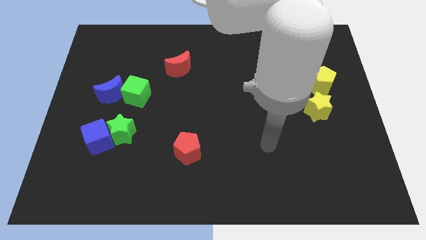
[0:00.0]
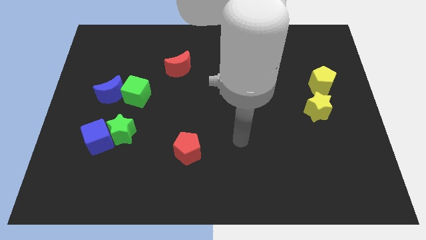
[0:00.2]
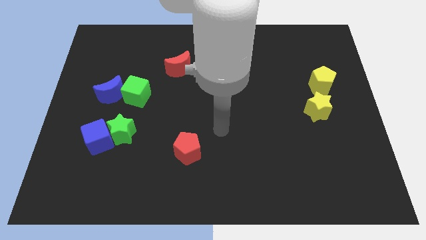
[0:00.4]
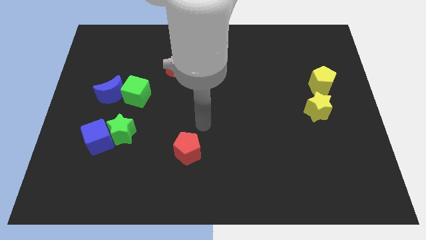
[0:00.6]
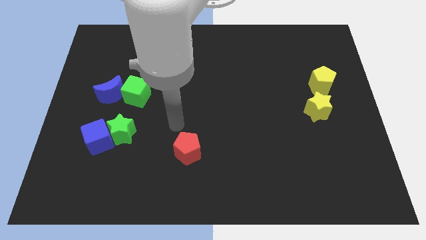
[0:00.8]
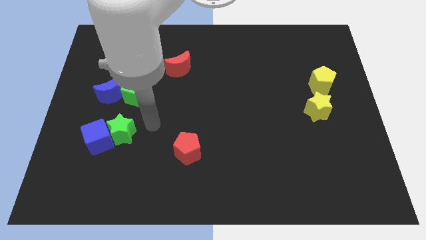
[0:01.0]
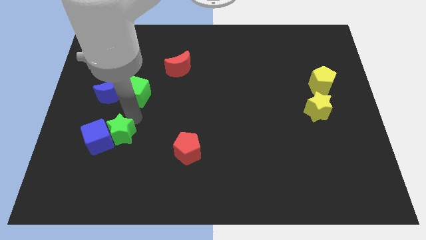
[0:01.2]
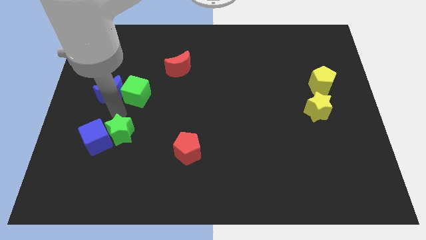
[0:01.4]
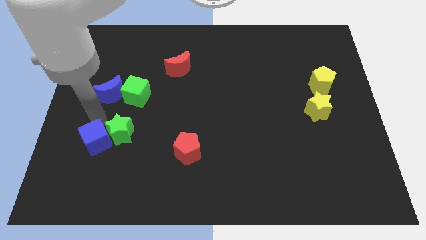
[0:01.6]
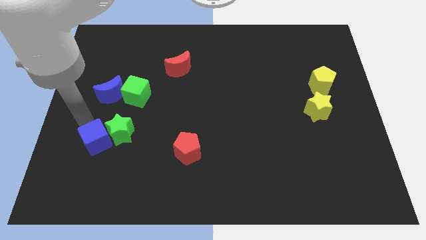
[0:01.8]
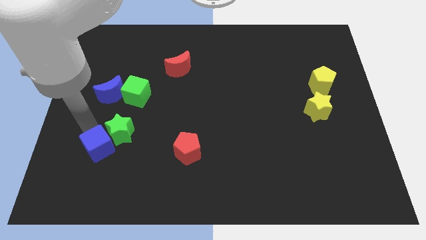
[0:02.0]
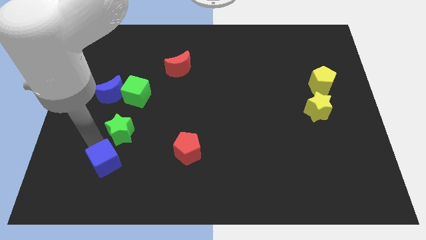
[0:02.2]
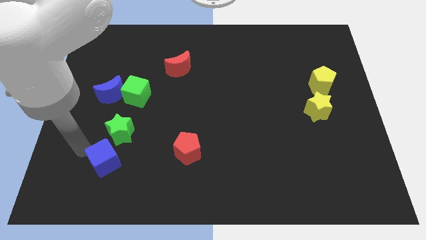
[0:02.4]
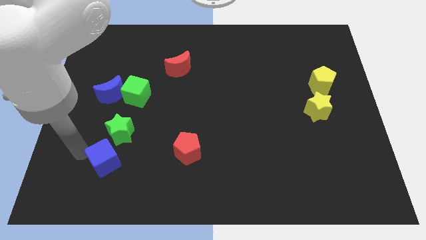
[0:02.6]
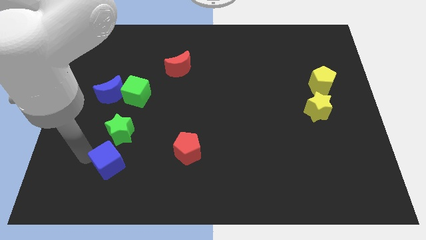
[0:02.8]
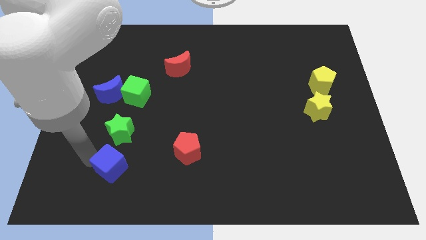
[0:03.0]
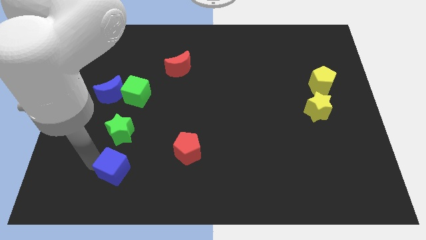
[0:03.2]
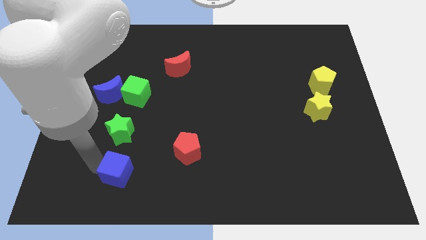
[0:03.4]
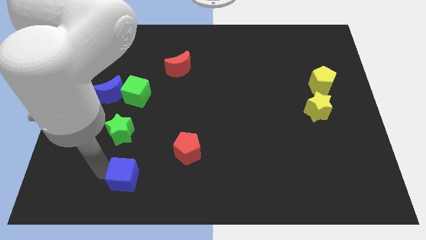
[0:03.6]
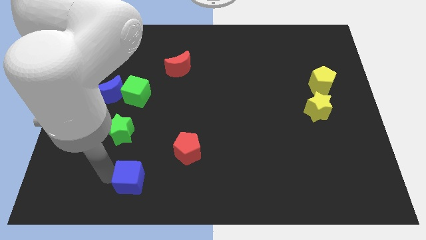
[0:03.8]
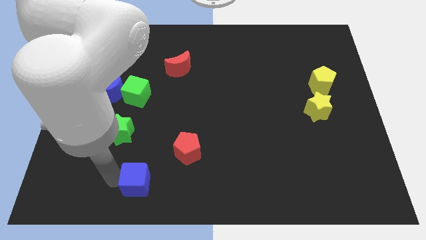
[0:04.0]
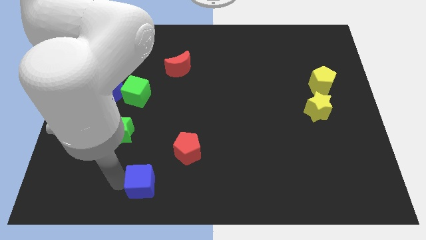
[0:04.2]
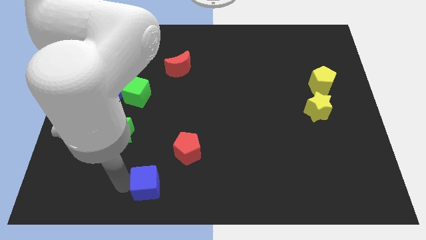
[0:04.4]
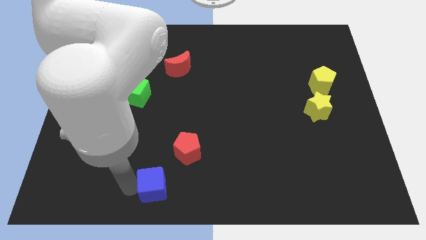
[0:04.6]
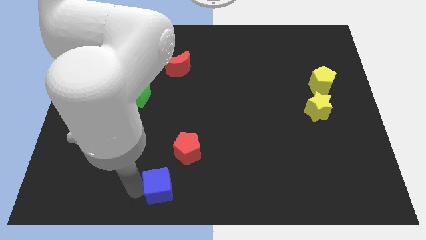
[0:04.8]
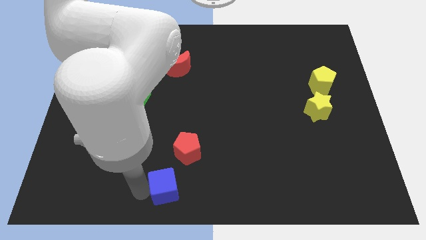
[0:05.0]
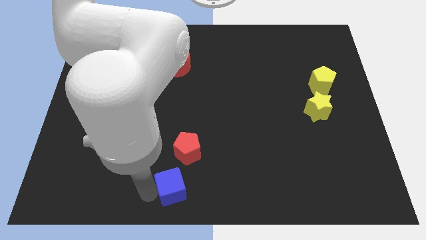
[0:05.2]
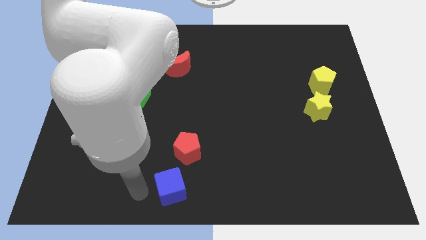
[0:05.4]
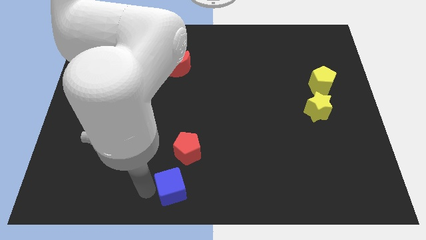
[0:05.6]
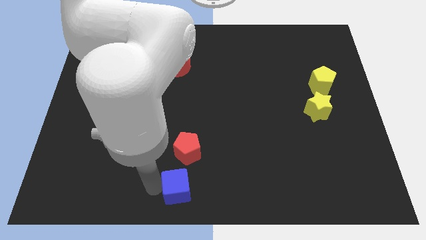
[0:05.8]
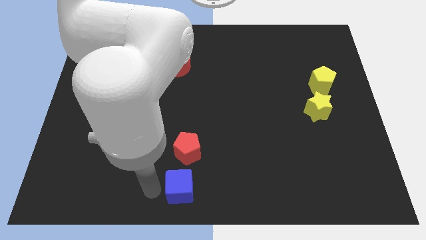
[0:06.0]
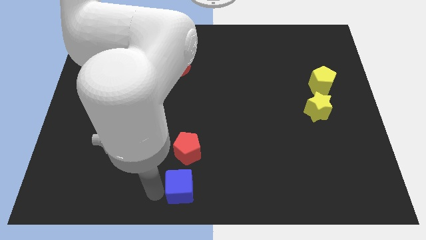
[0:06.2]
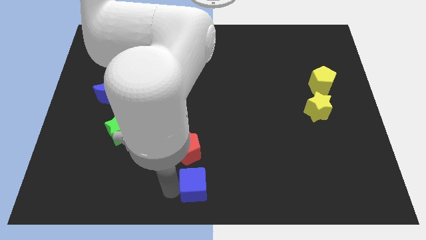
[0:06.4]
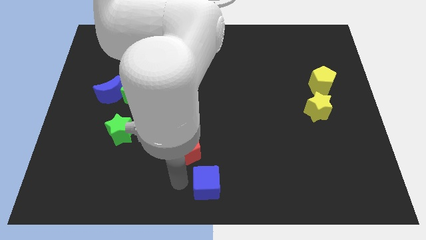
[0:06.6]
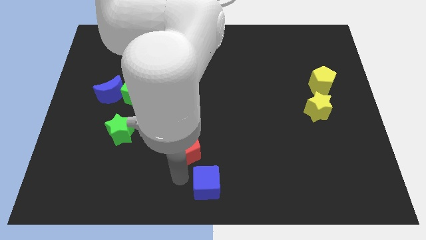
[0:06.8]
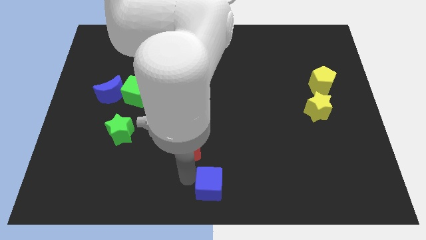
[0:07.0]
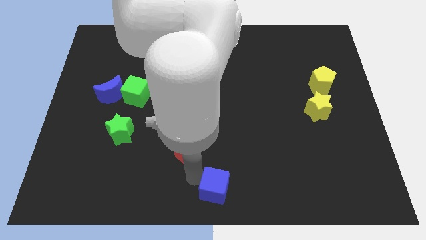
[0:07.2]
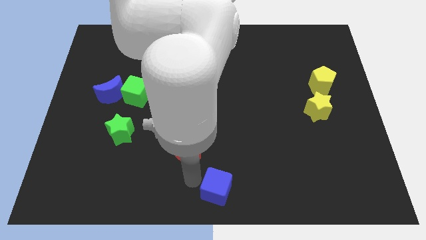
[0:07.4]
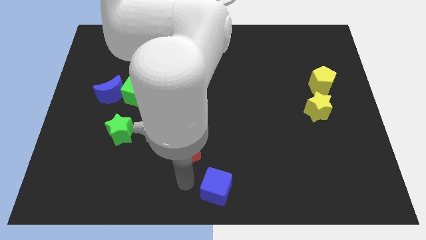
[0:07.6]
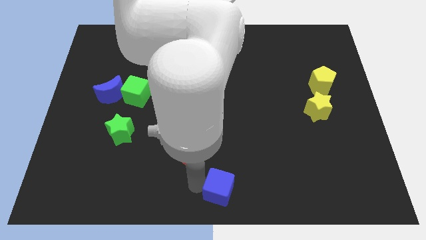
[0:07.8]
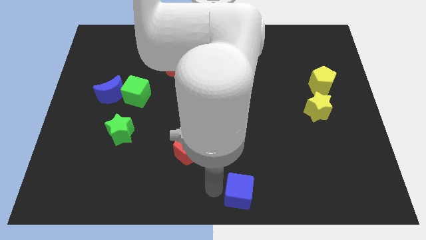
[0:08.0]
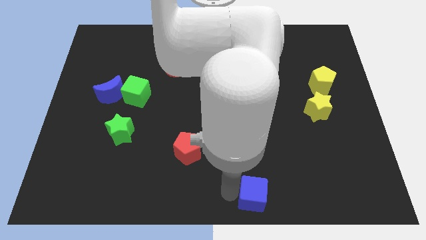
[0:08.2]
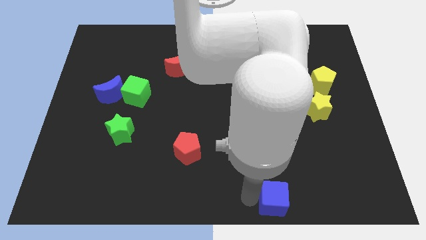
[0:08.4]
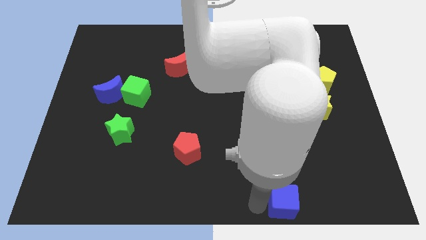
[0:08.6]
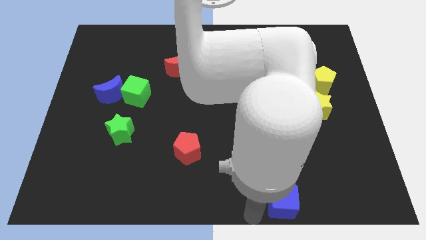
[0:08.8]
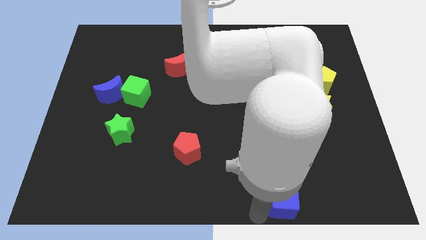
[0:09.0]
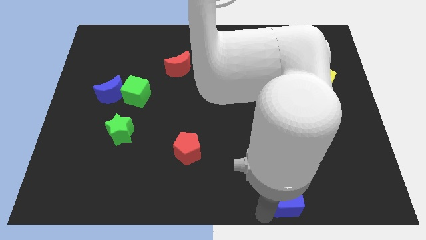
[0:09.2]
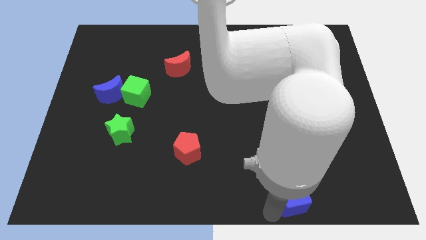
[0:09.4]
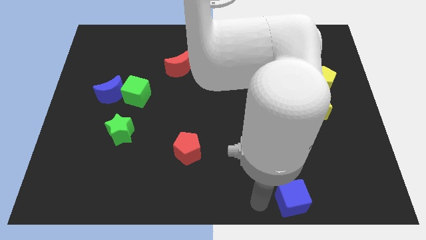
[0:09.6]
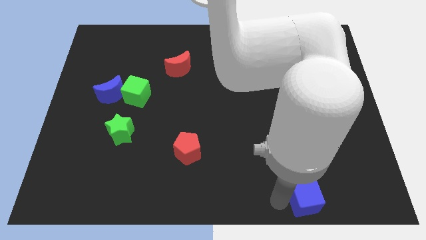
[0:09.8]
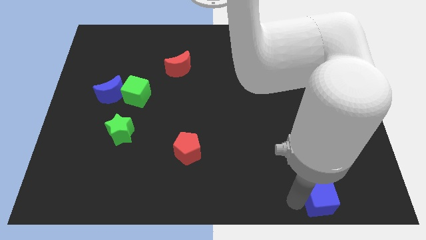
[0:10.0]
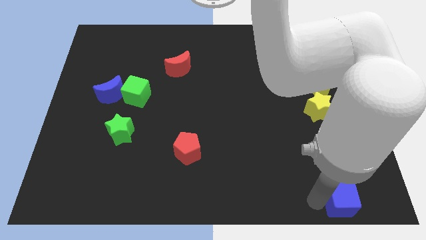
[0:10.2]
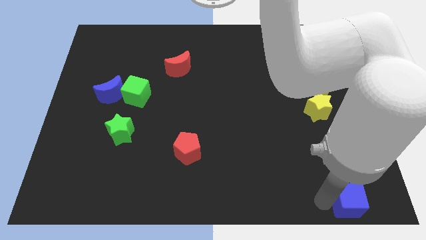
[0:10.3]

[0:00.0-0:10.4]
put the blue cube to the bottom right of the board

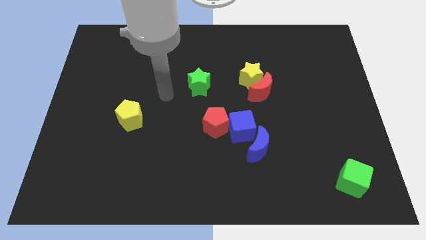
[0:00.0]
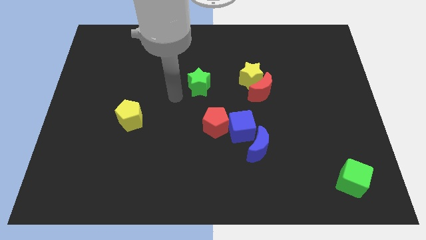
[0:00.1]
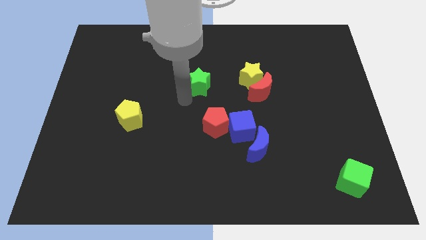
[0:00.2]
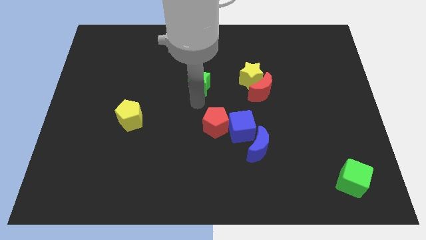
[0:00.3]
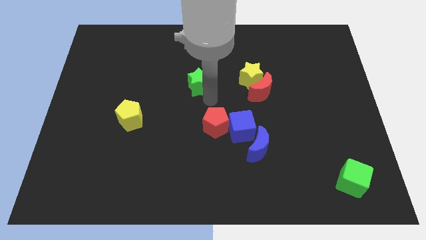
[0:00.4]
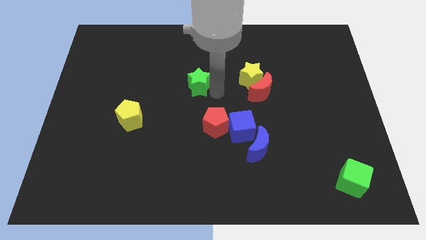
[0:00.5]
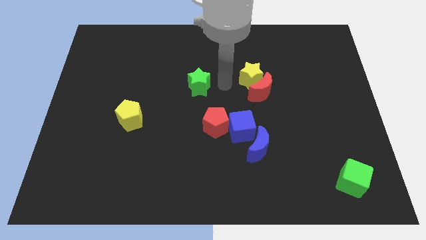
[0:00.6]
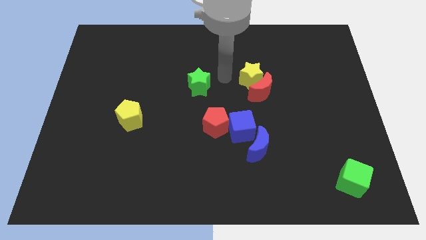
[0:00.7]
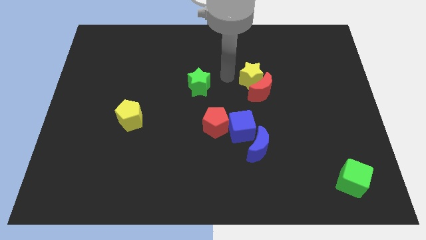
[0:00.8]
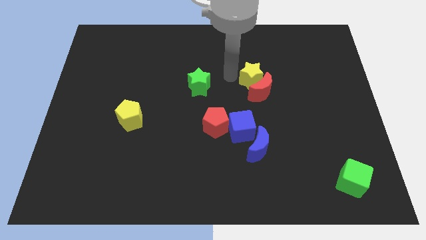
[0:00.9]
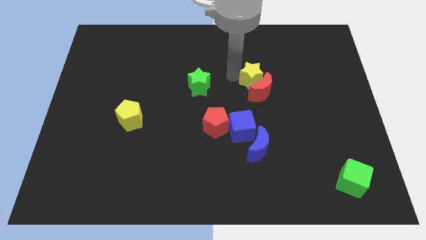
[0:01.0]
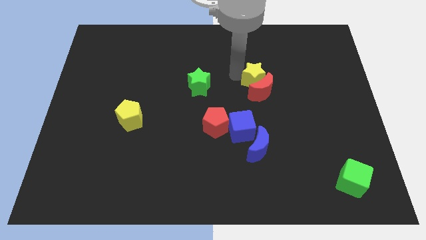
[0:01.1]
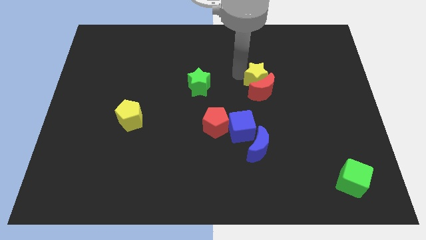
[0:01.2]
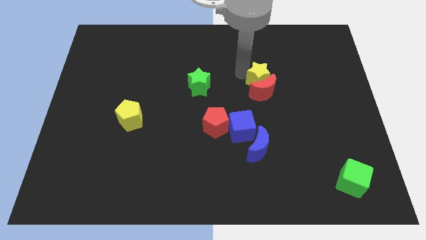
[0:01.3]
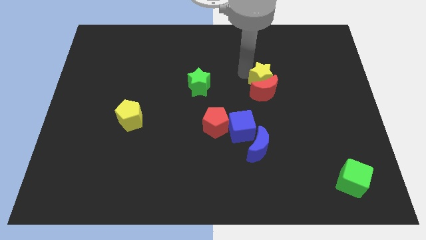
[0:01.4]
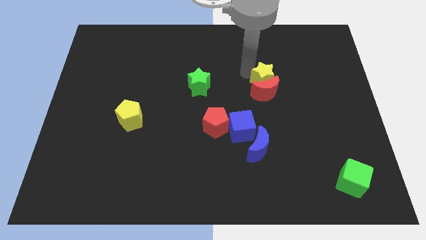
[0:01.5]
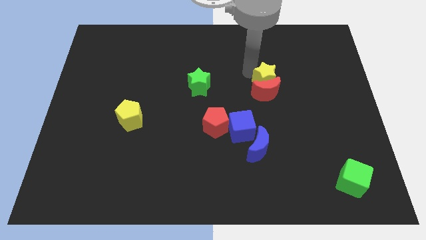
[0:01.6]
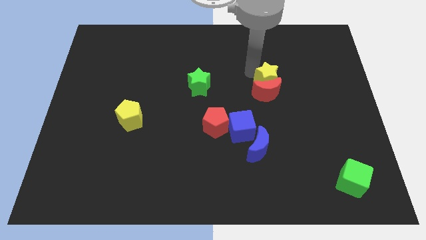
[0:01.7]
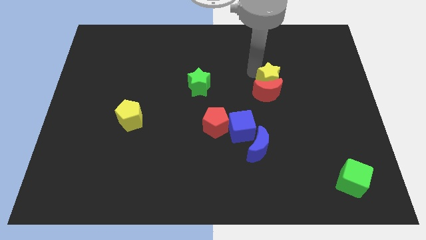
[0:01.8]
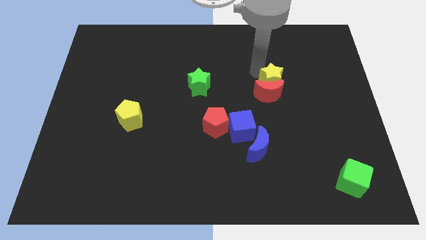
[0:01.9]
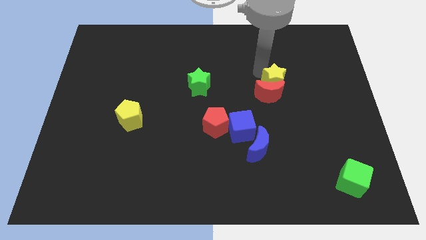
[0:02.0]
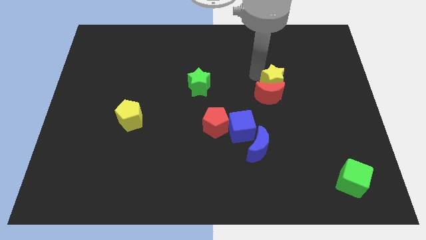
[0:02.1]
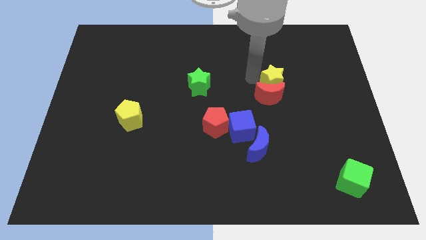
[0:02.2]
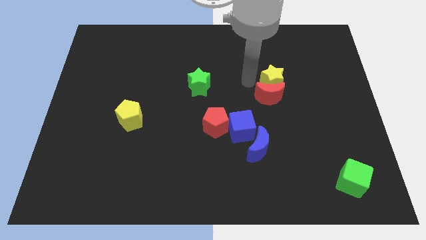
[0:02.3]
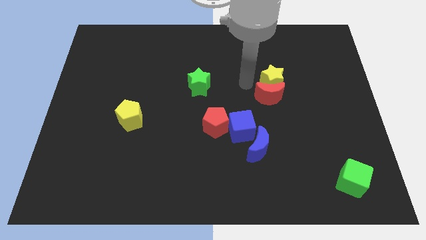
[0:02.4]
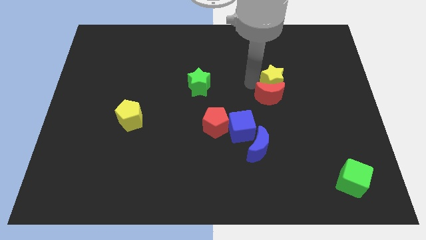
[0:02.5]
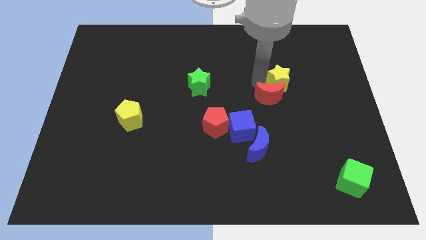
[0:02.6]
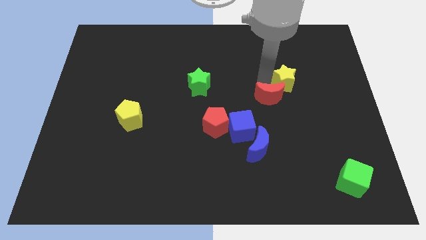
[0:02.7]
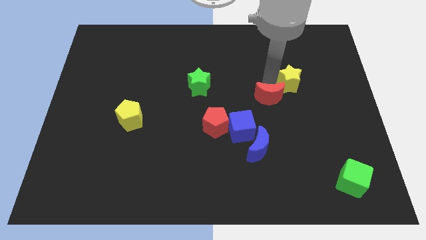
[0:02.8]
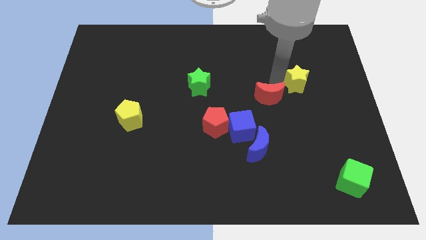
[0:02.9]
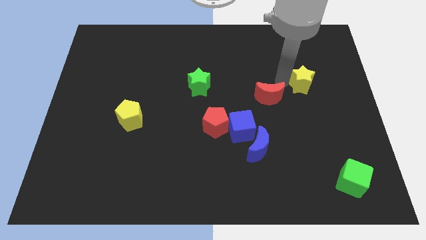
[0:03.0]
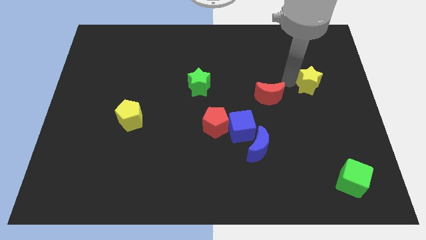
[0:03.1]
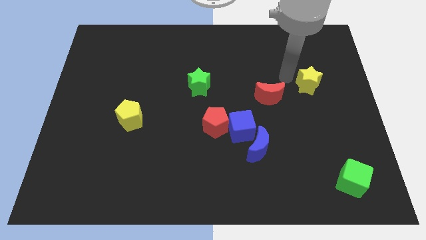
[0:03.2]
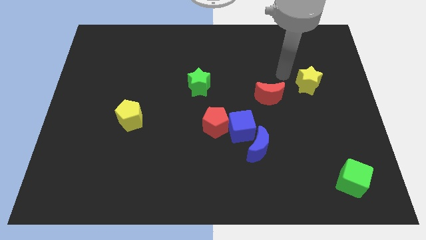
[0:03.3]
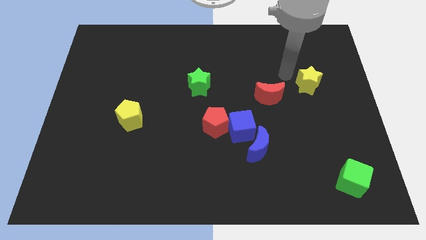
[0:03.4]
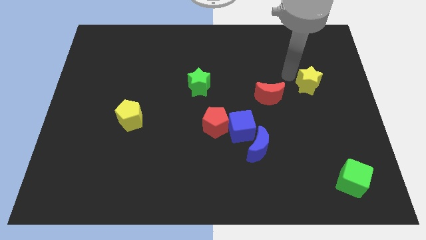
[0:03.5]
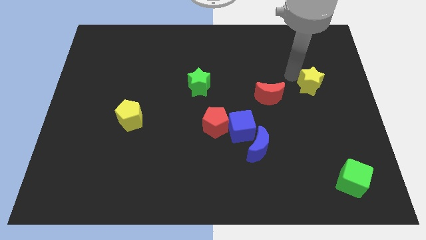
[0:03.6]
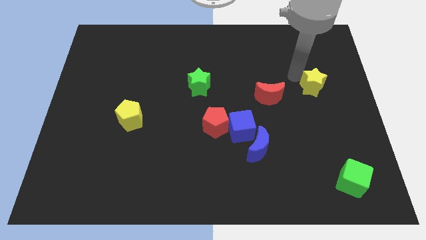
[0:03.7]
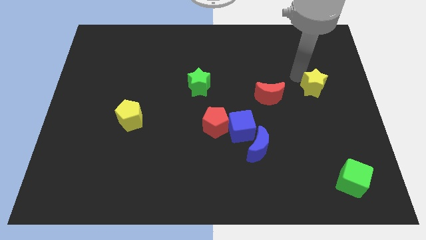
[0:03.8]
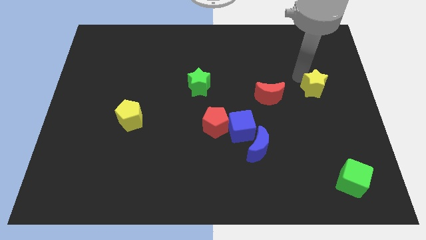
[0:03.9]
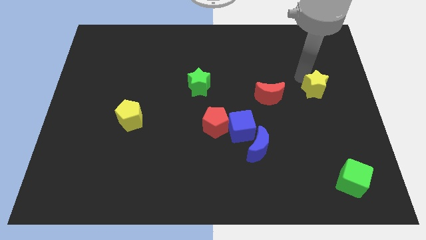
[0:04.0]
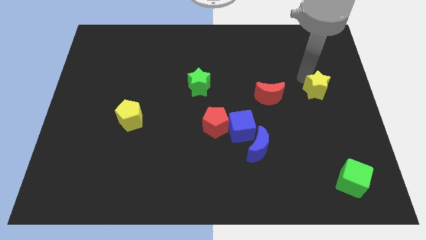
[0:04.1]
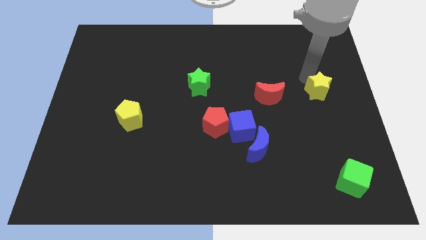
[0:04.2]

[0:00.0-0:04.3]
slide the yellow star to the right side of the board
